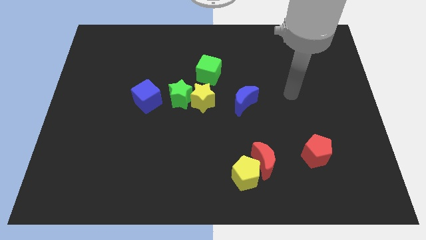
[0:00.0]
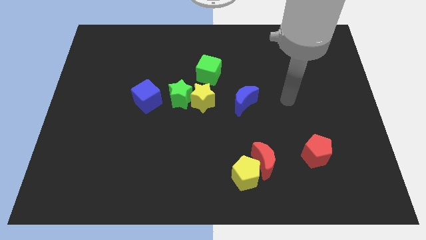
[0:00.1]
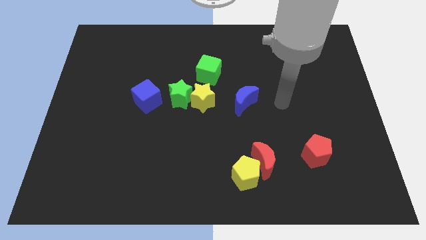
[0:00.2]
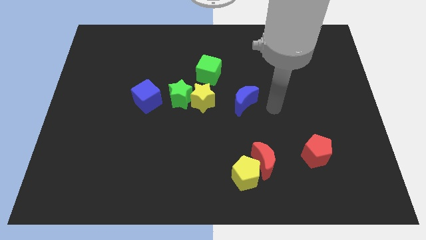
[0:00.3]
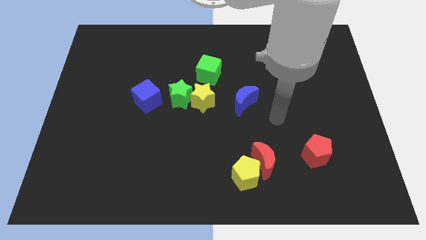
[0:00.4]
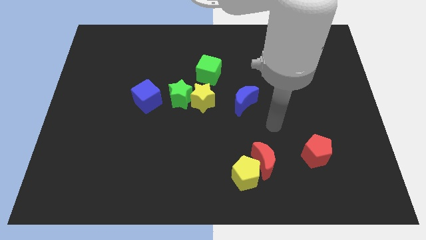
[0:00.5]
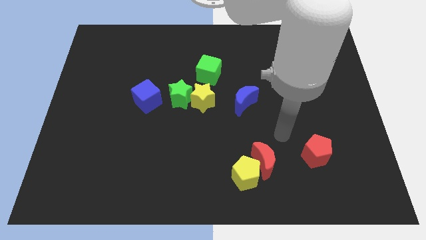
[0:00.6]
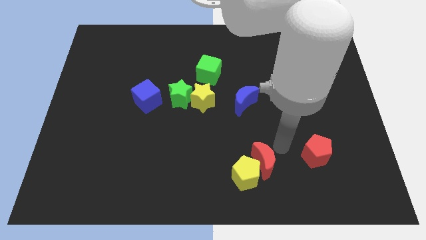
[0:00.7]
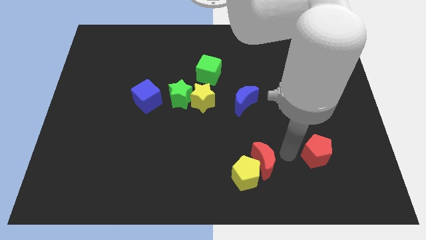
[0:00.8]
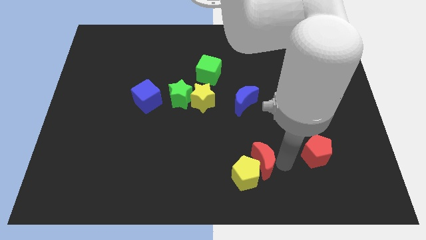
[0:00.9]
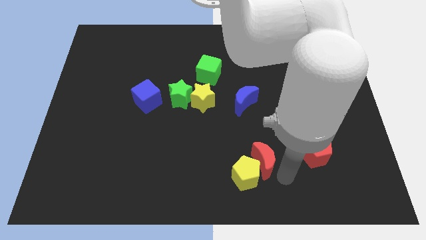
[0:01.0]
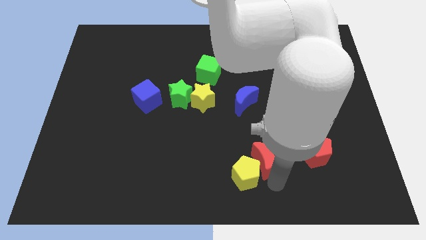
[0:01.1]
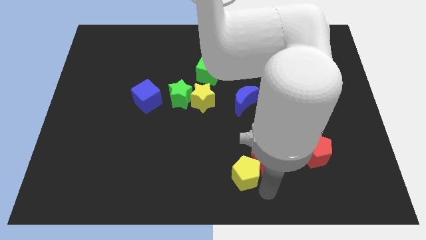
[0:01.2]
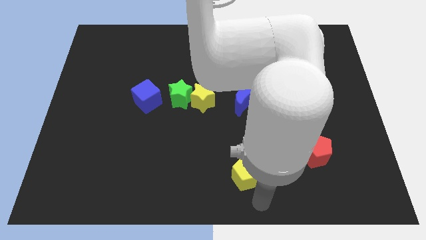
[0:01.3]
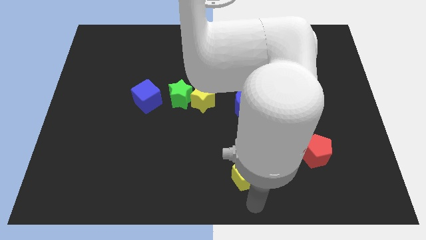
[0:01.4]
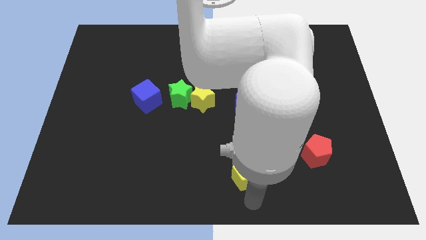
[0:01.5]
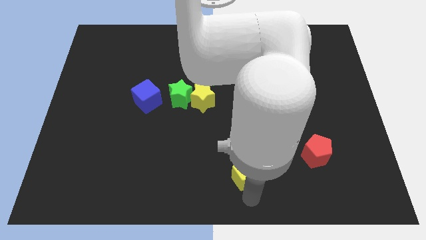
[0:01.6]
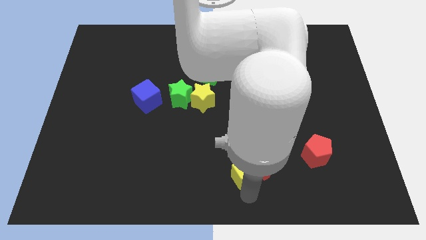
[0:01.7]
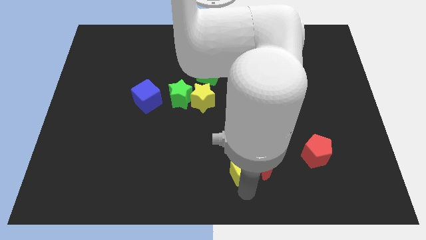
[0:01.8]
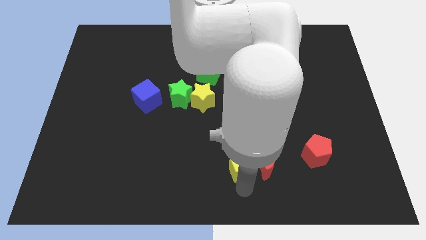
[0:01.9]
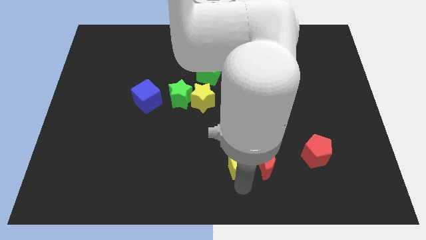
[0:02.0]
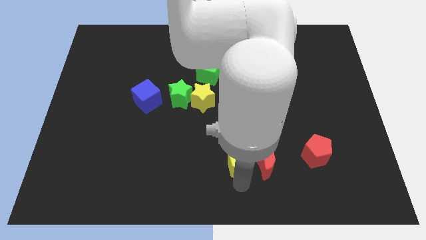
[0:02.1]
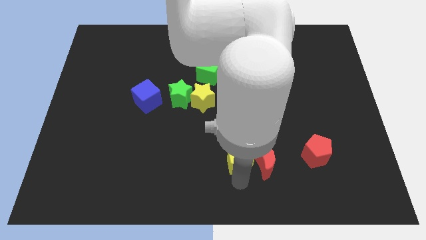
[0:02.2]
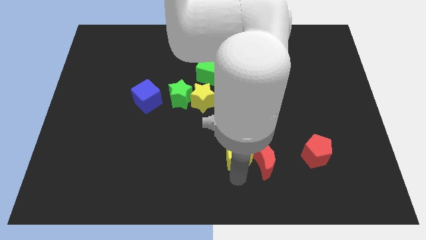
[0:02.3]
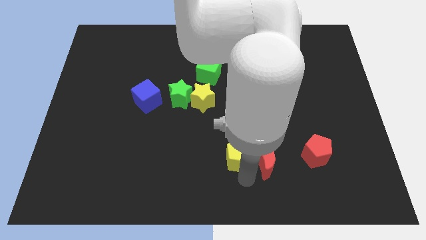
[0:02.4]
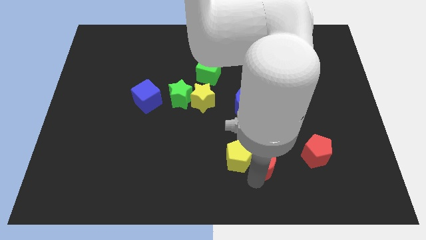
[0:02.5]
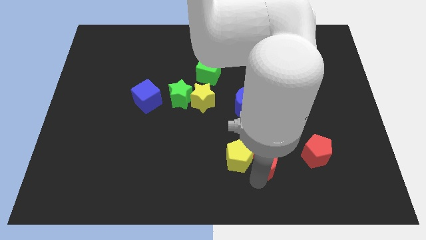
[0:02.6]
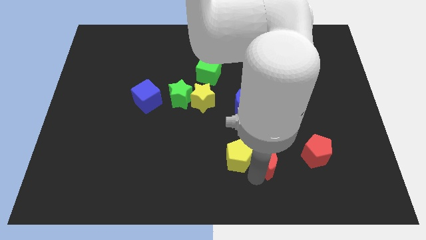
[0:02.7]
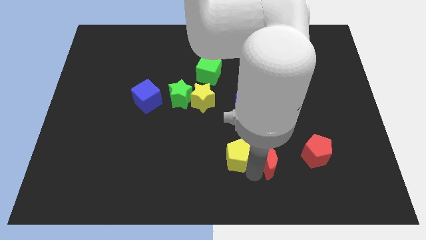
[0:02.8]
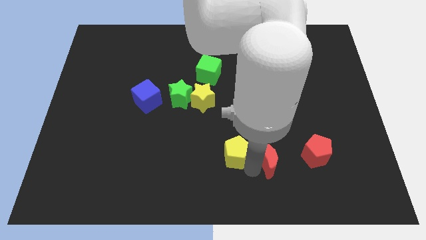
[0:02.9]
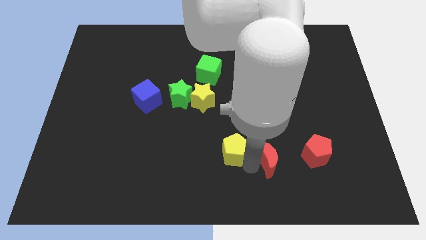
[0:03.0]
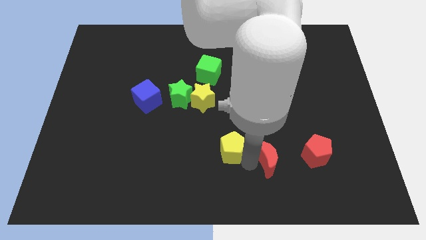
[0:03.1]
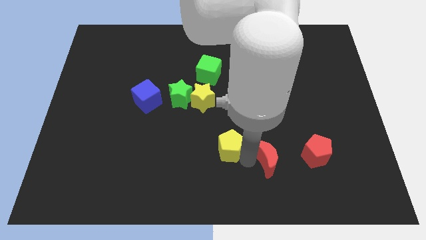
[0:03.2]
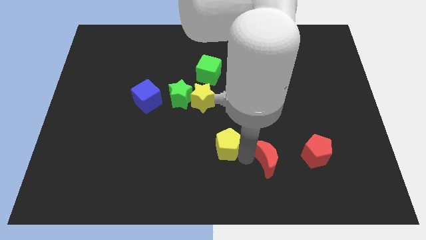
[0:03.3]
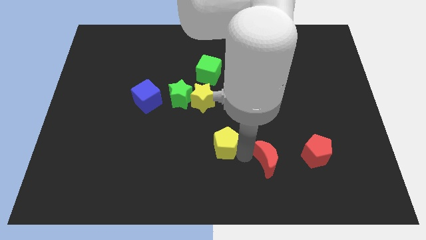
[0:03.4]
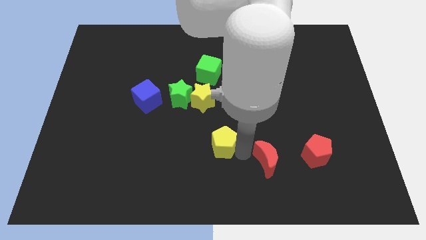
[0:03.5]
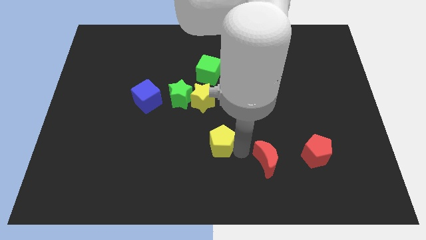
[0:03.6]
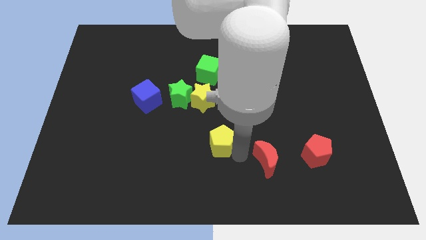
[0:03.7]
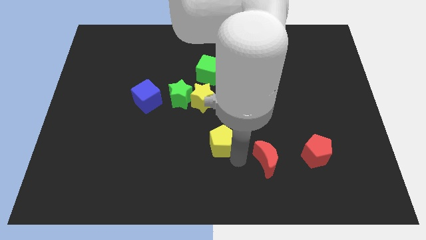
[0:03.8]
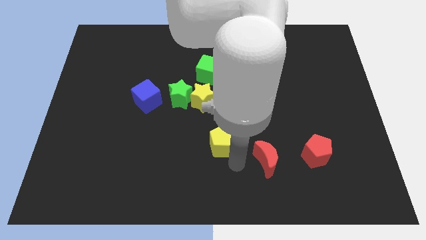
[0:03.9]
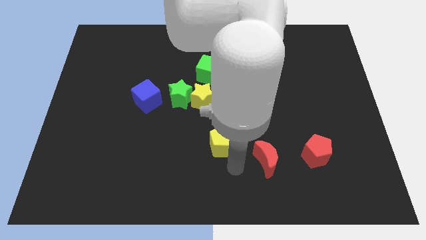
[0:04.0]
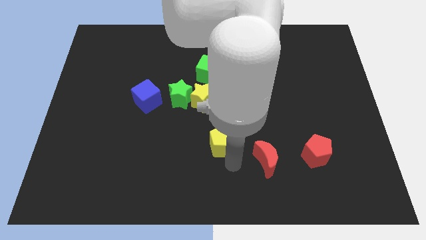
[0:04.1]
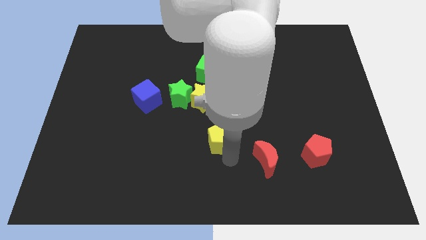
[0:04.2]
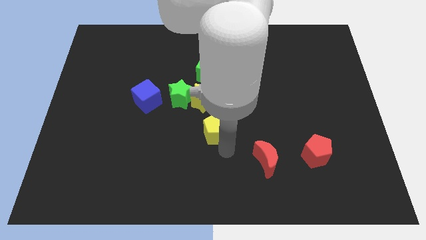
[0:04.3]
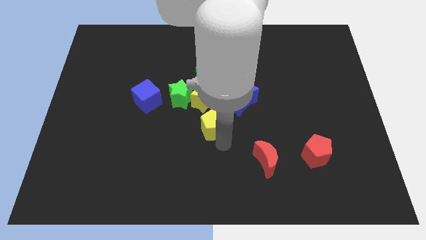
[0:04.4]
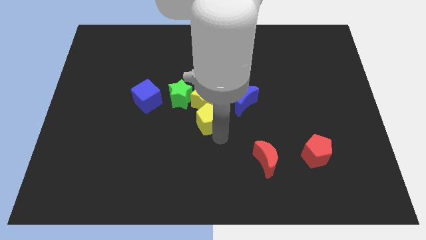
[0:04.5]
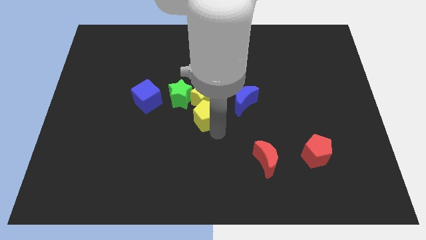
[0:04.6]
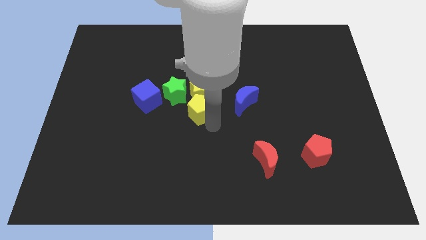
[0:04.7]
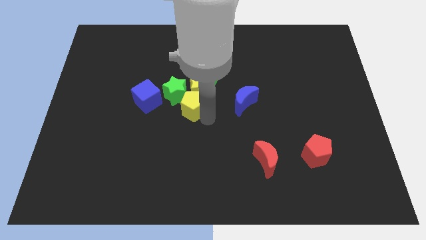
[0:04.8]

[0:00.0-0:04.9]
move the yellow pentagon next to the green star

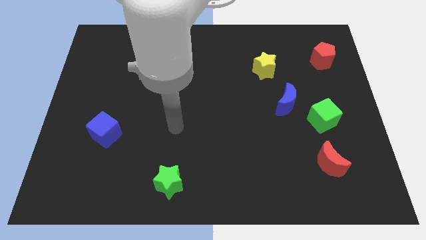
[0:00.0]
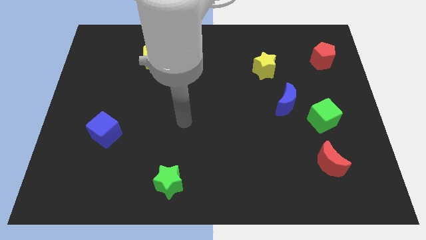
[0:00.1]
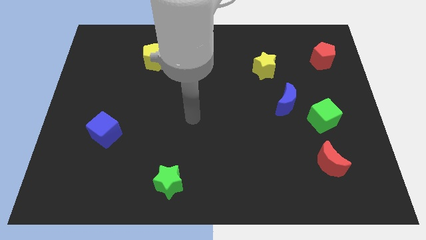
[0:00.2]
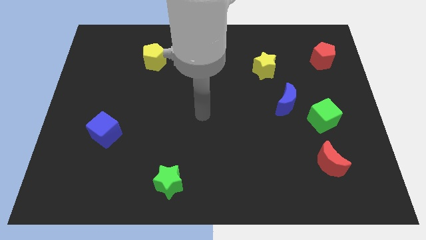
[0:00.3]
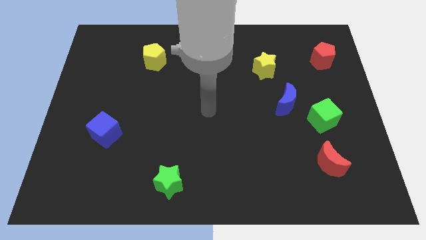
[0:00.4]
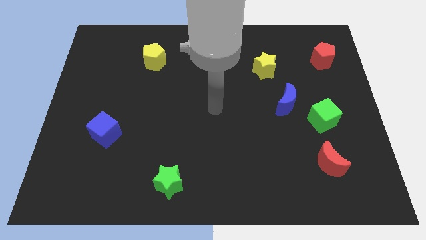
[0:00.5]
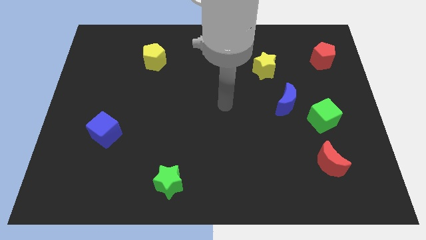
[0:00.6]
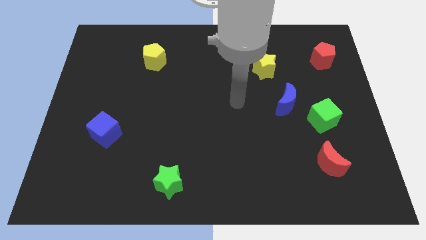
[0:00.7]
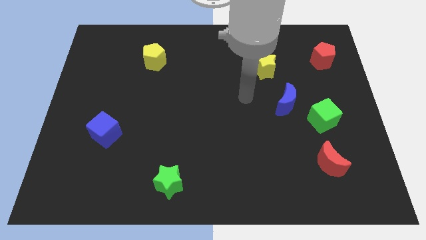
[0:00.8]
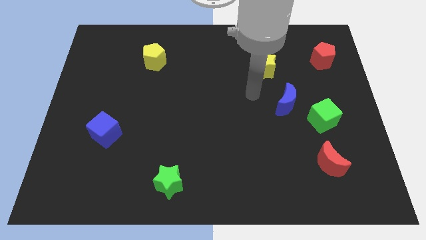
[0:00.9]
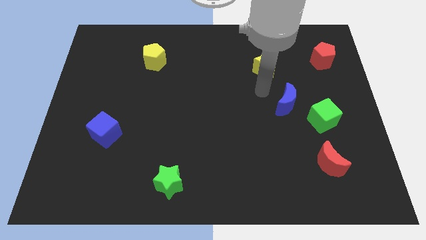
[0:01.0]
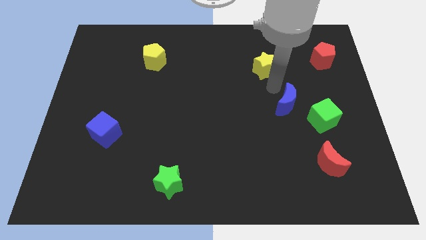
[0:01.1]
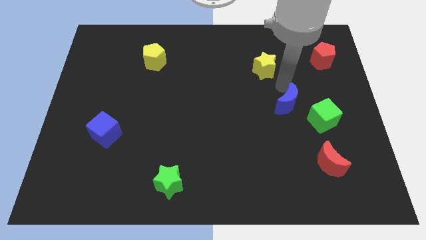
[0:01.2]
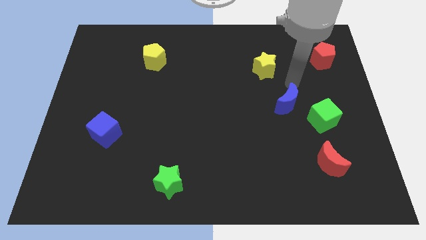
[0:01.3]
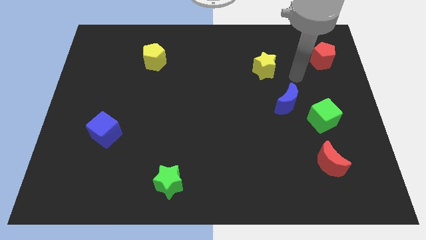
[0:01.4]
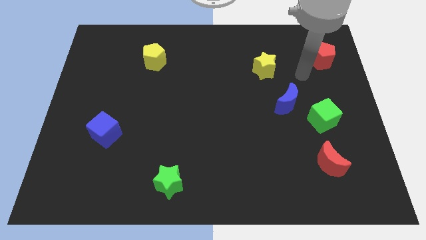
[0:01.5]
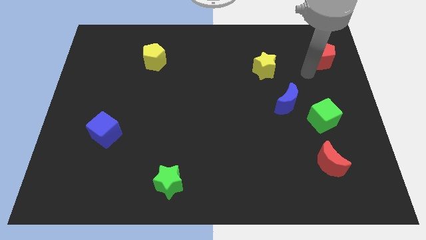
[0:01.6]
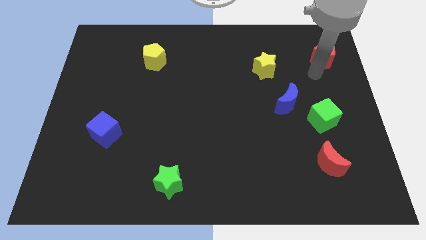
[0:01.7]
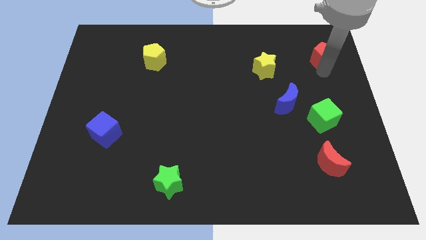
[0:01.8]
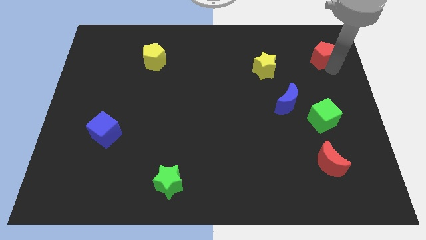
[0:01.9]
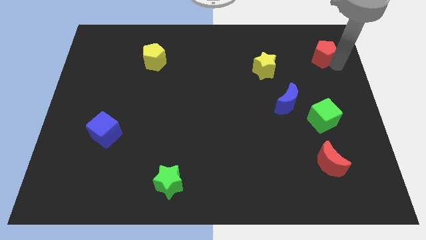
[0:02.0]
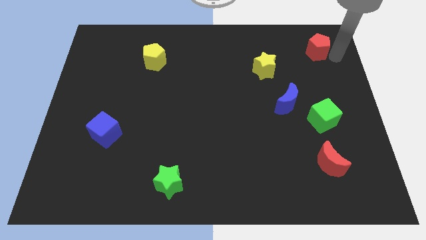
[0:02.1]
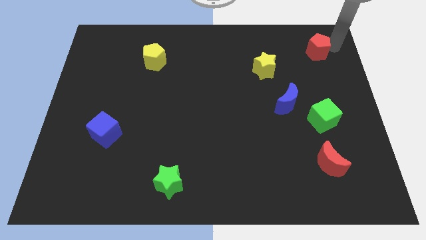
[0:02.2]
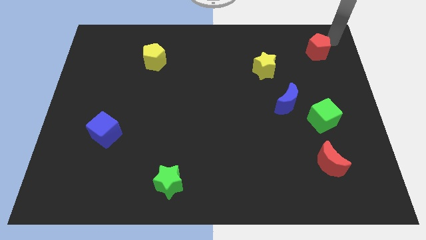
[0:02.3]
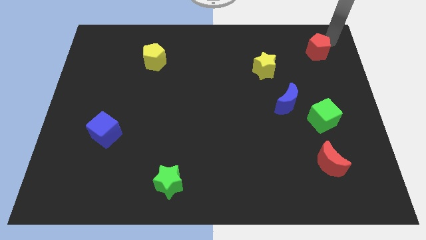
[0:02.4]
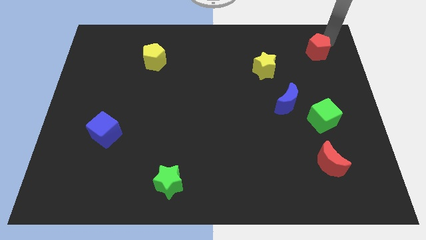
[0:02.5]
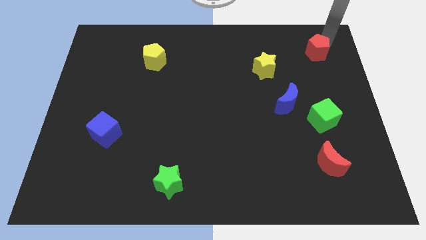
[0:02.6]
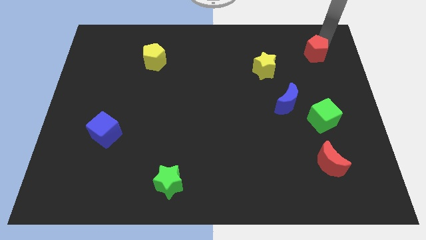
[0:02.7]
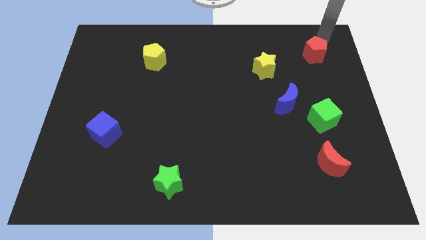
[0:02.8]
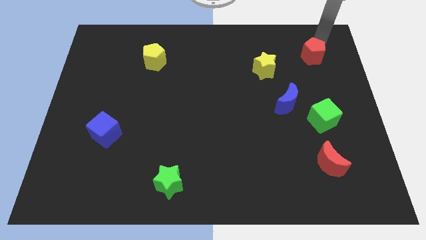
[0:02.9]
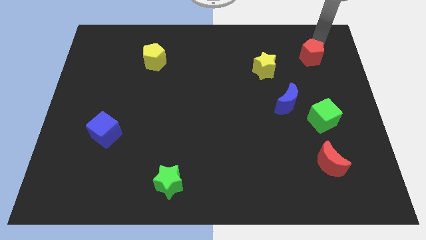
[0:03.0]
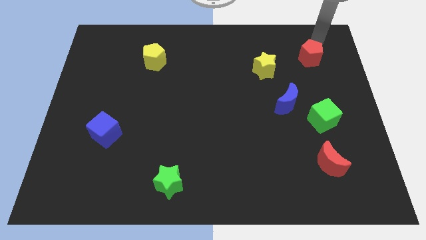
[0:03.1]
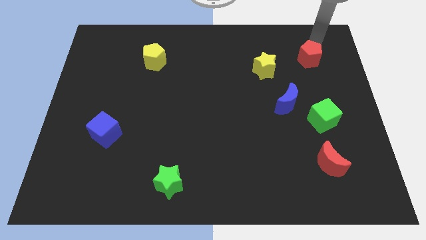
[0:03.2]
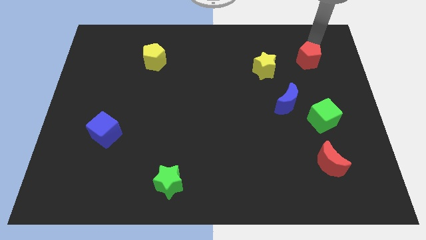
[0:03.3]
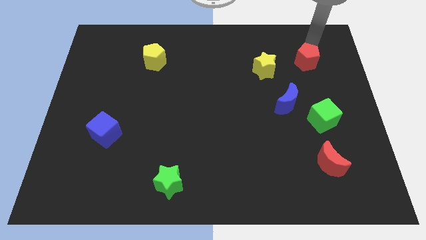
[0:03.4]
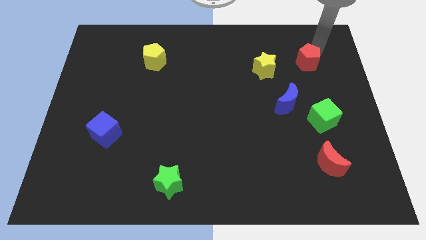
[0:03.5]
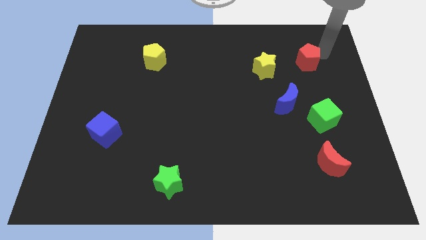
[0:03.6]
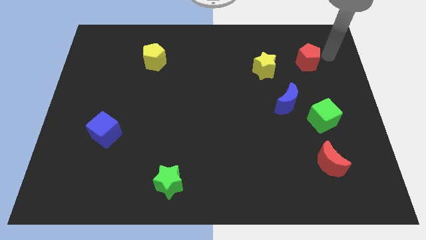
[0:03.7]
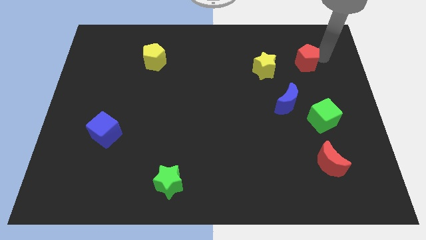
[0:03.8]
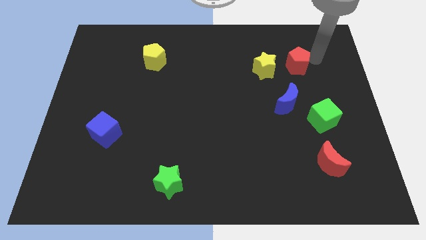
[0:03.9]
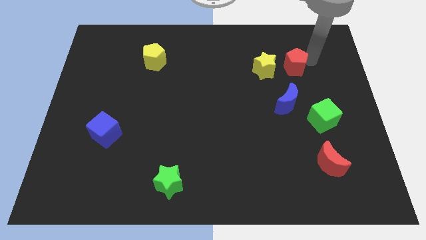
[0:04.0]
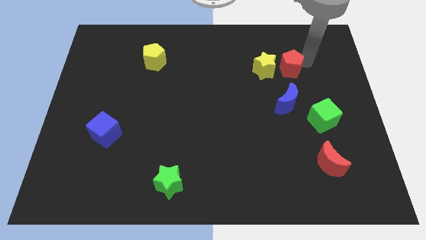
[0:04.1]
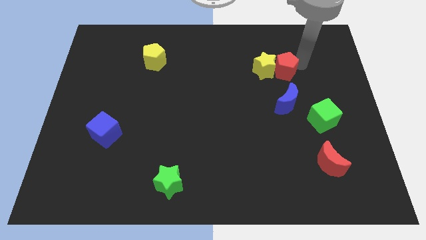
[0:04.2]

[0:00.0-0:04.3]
put the red pentagon to the yellow star
